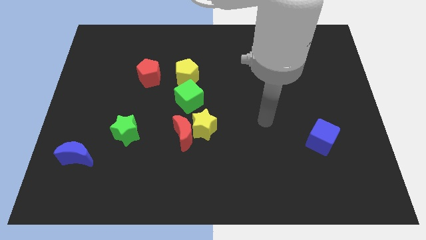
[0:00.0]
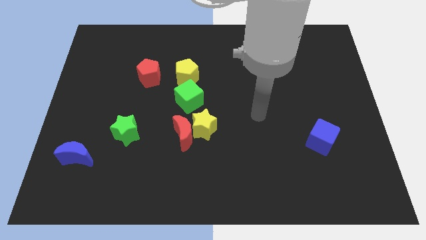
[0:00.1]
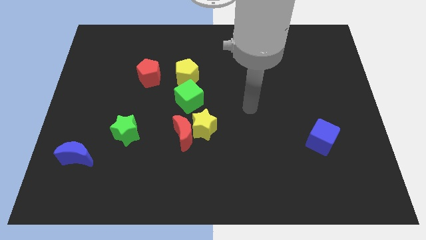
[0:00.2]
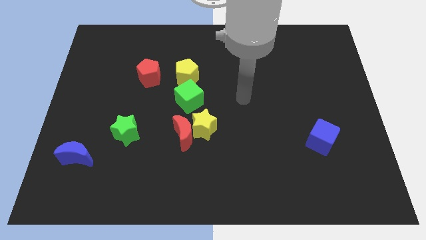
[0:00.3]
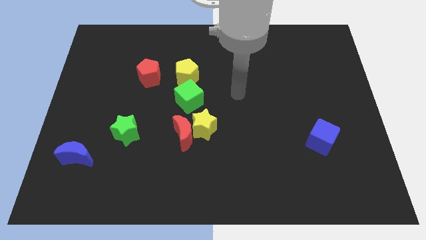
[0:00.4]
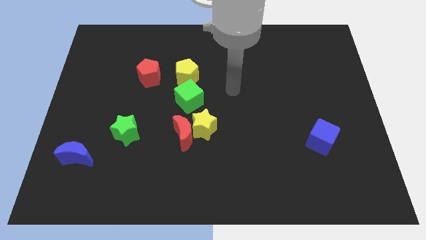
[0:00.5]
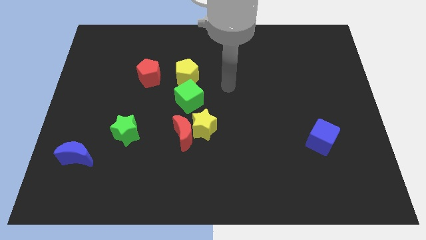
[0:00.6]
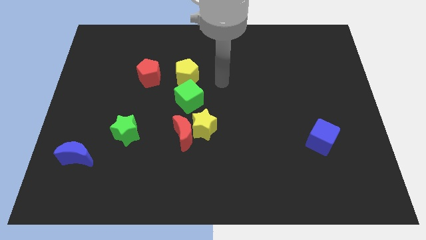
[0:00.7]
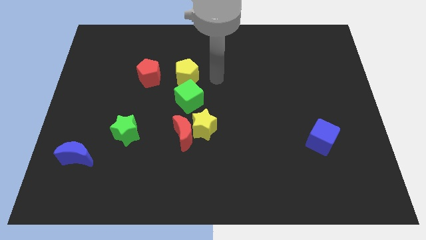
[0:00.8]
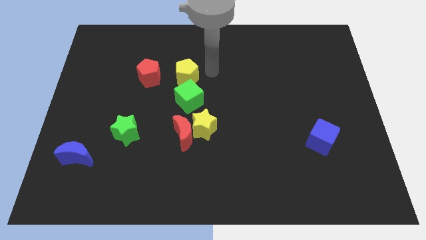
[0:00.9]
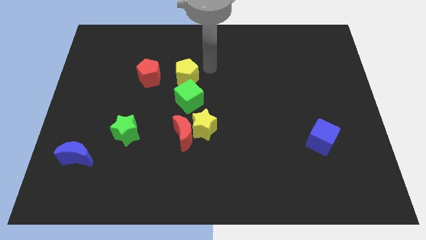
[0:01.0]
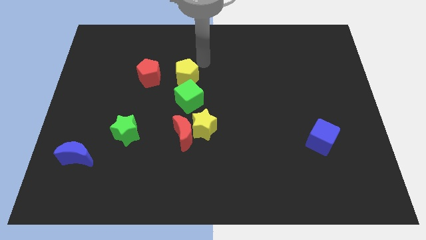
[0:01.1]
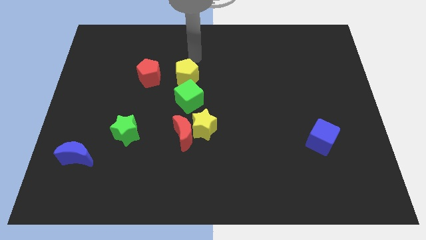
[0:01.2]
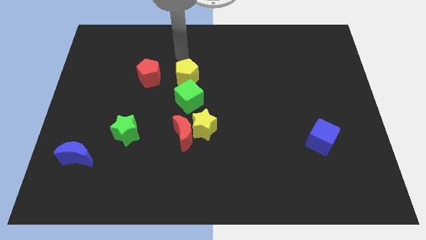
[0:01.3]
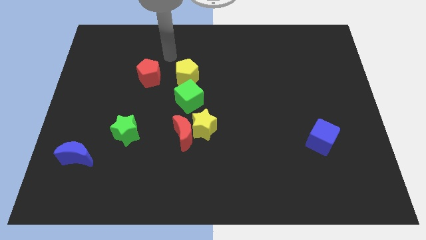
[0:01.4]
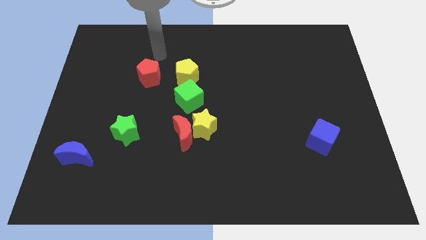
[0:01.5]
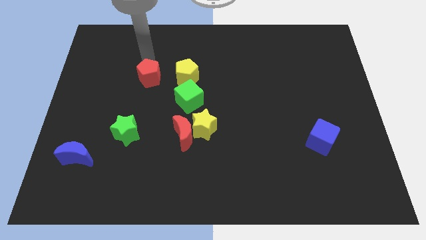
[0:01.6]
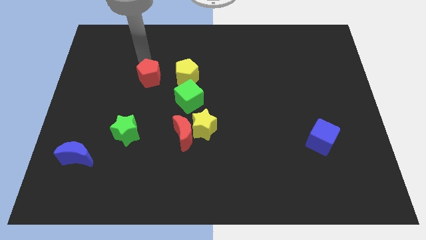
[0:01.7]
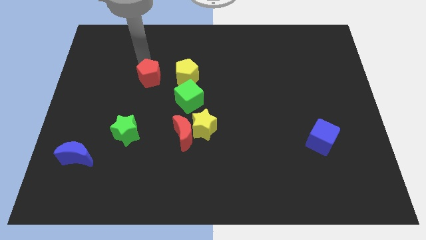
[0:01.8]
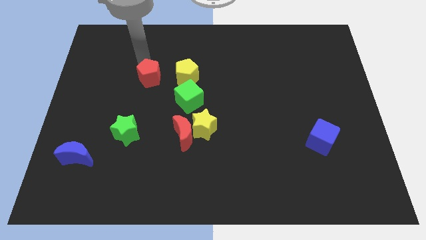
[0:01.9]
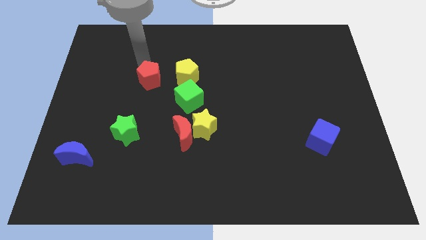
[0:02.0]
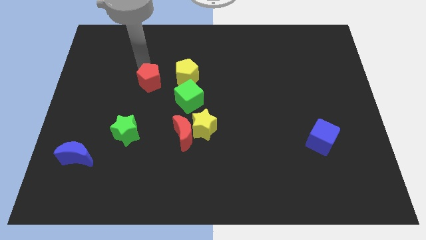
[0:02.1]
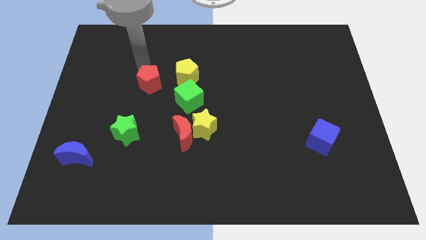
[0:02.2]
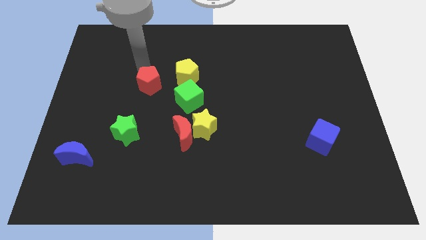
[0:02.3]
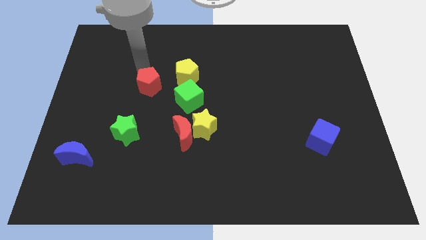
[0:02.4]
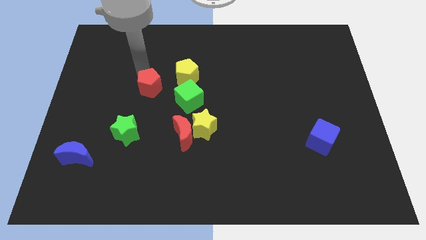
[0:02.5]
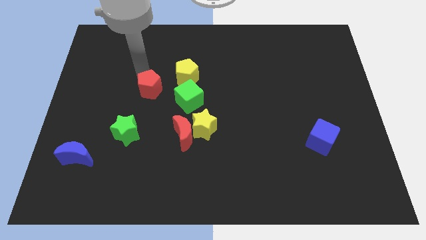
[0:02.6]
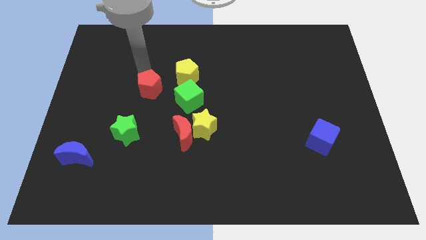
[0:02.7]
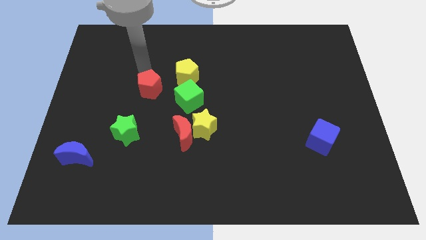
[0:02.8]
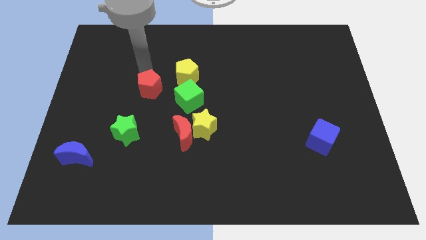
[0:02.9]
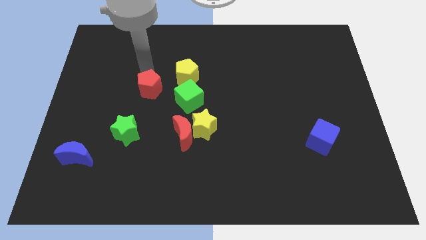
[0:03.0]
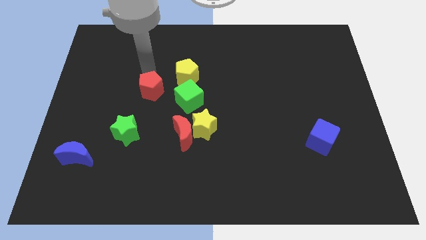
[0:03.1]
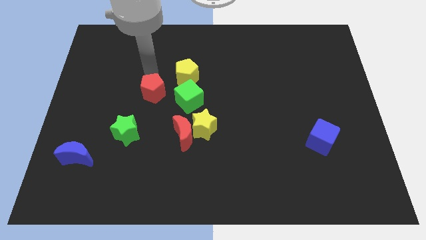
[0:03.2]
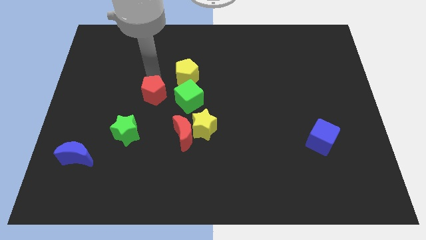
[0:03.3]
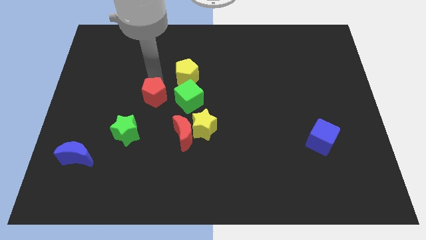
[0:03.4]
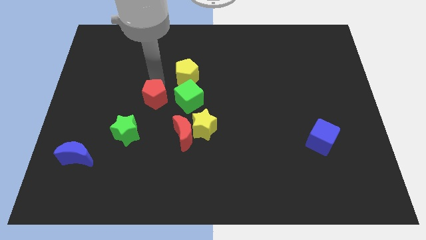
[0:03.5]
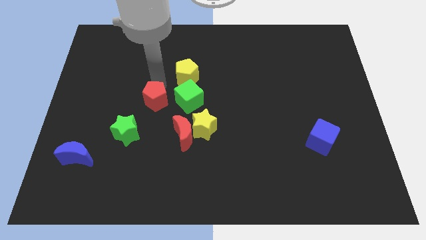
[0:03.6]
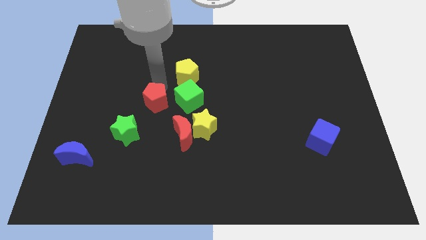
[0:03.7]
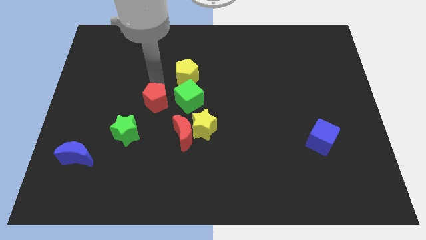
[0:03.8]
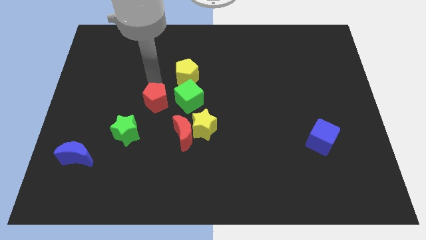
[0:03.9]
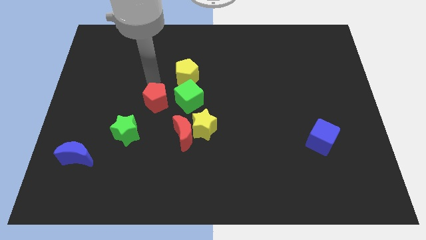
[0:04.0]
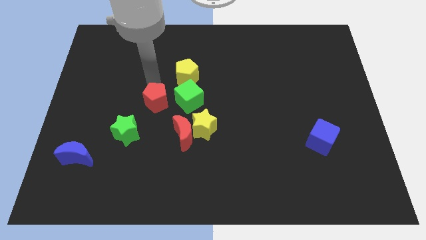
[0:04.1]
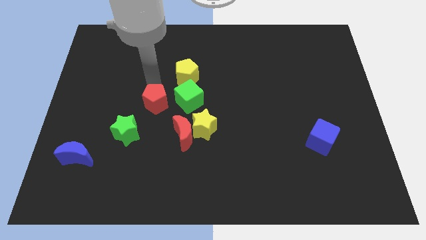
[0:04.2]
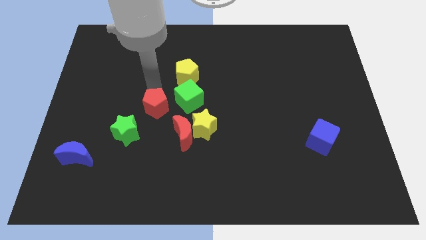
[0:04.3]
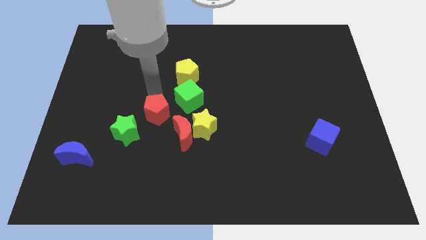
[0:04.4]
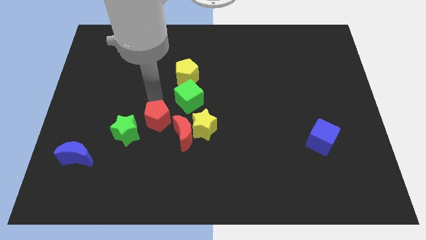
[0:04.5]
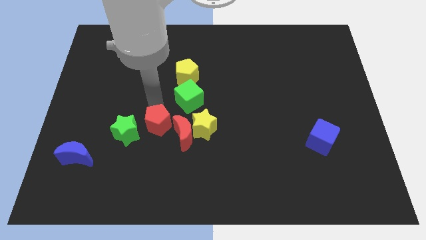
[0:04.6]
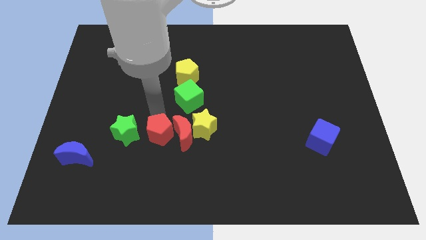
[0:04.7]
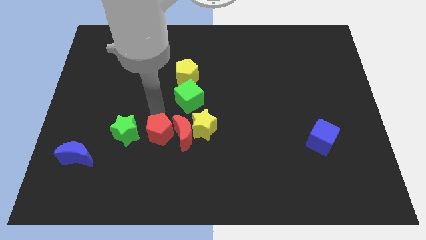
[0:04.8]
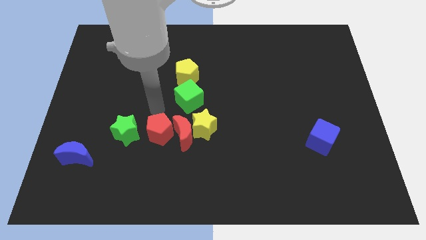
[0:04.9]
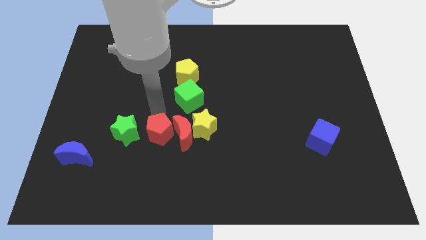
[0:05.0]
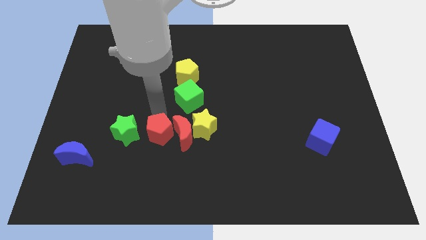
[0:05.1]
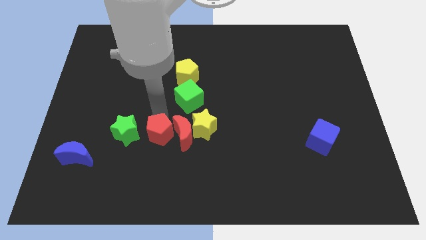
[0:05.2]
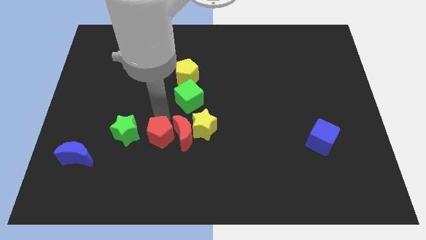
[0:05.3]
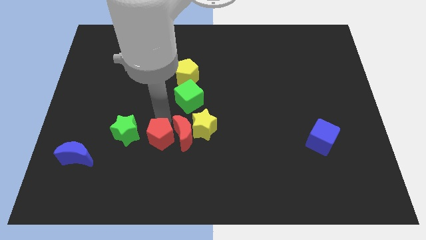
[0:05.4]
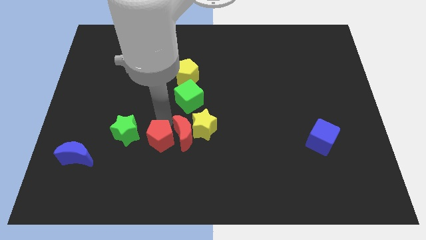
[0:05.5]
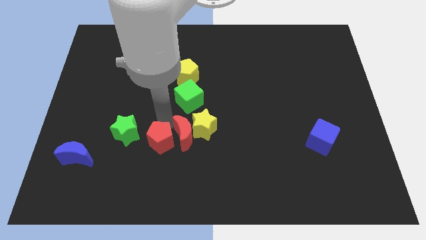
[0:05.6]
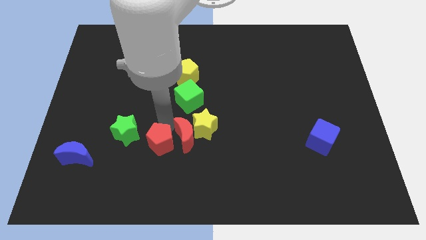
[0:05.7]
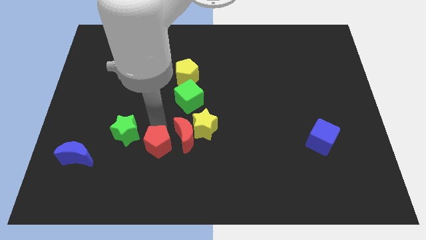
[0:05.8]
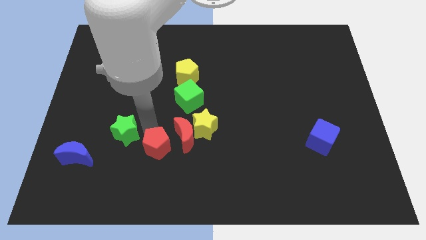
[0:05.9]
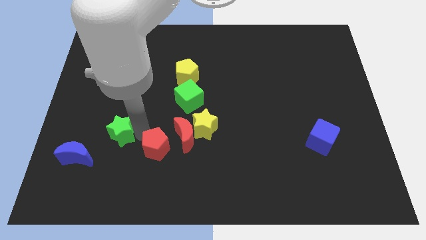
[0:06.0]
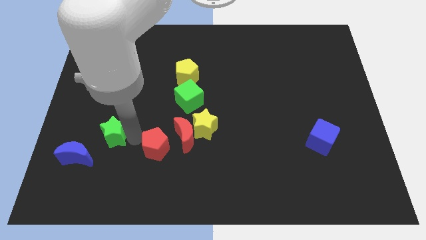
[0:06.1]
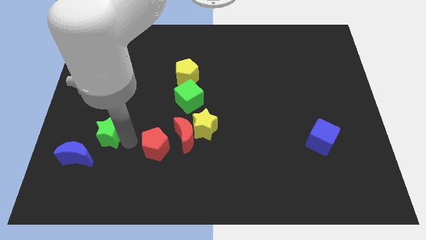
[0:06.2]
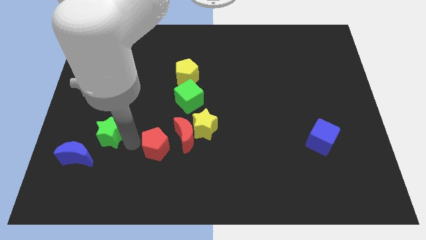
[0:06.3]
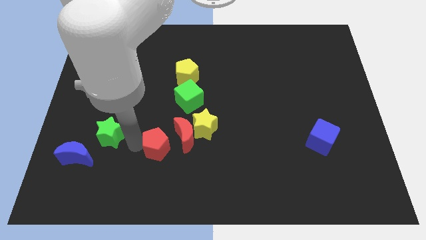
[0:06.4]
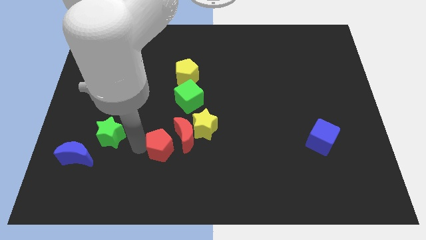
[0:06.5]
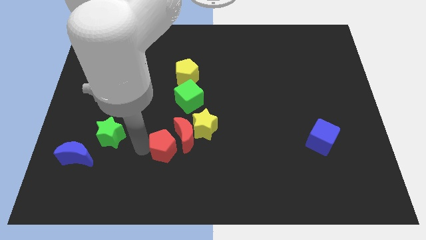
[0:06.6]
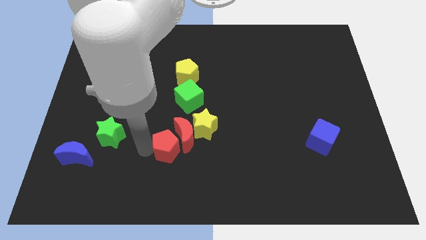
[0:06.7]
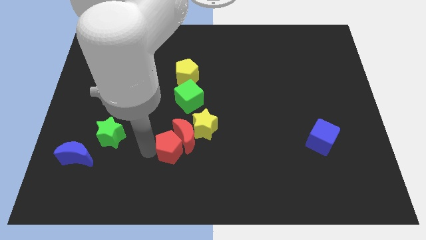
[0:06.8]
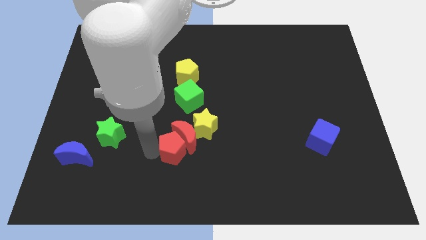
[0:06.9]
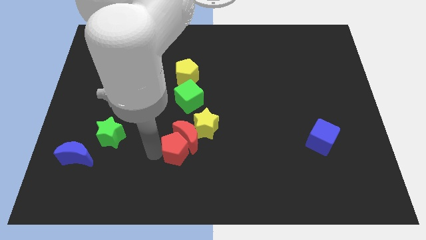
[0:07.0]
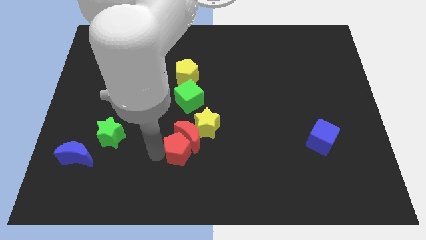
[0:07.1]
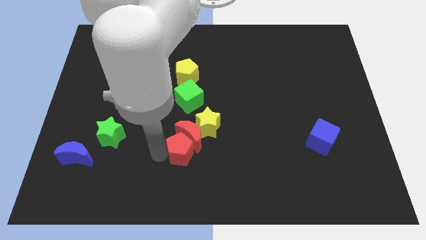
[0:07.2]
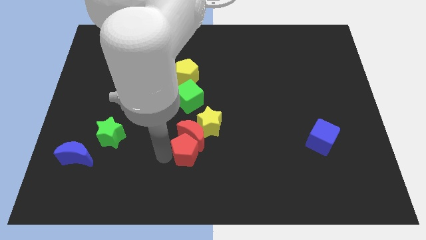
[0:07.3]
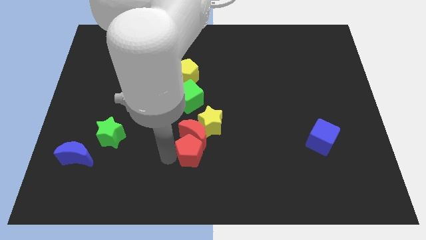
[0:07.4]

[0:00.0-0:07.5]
slide the red pentagon downwards and to the right

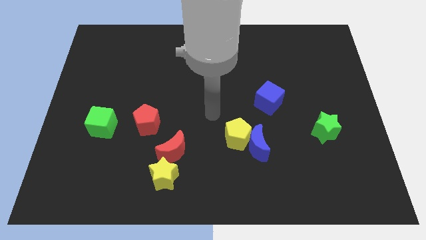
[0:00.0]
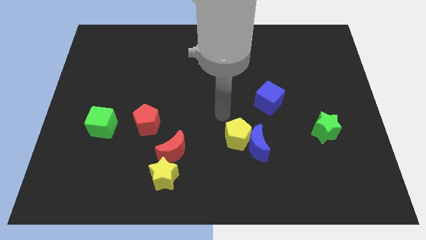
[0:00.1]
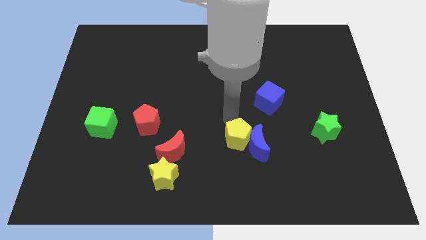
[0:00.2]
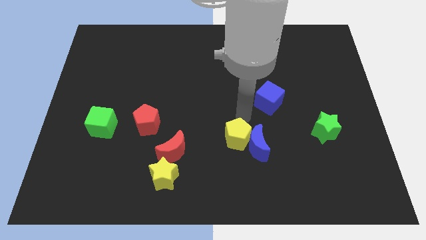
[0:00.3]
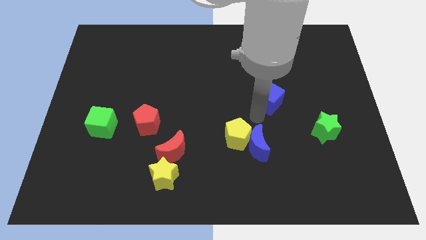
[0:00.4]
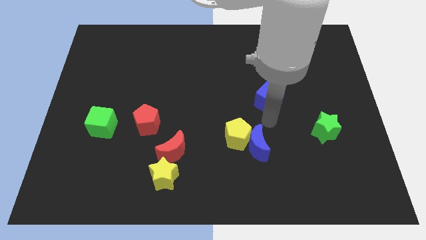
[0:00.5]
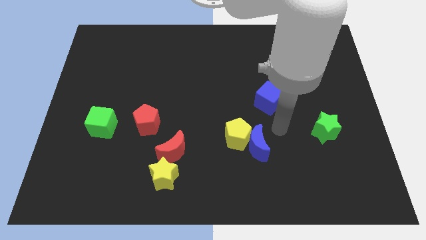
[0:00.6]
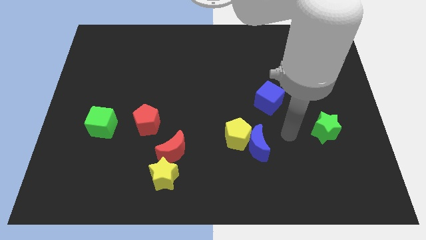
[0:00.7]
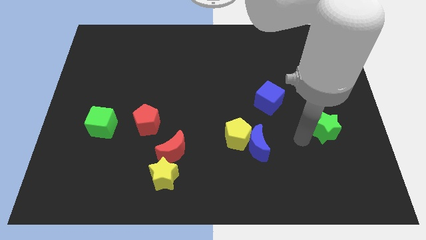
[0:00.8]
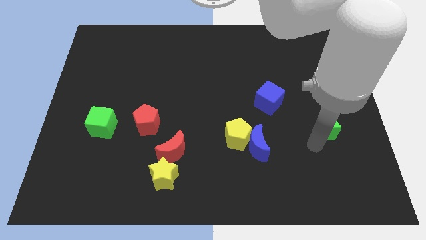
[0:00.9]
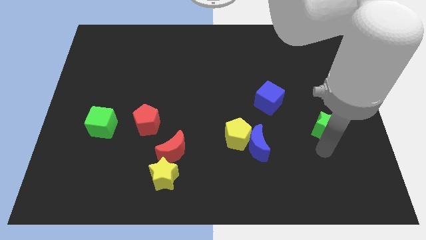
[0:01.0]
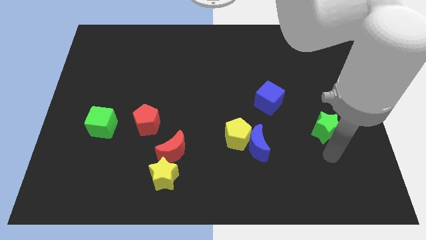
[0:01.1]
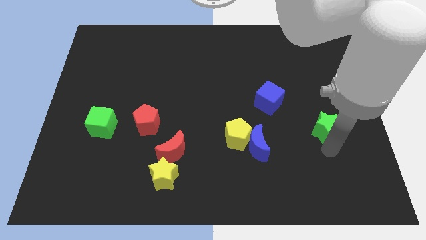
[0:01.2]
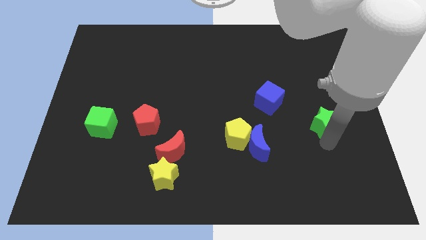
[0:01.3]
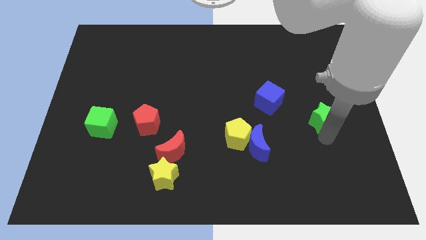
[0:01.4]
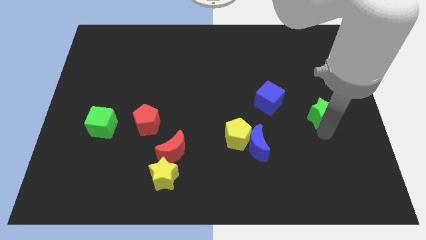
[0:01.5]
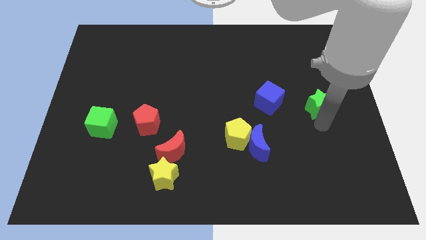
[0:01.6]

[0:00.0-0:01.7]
move the green star a bit up
